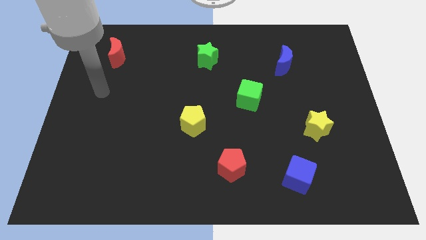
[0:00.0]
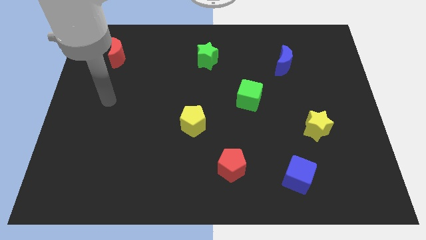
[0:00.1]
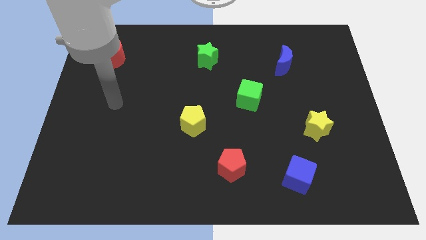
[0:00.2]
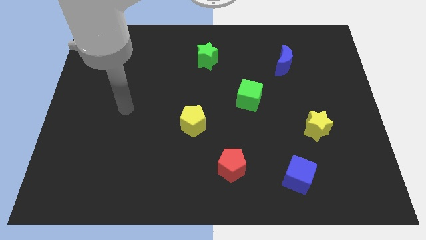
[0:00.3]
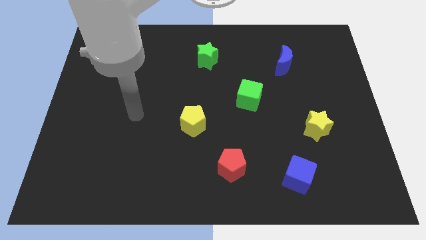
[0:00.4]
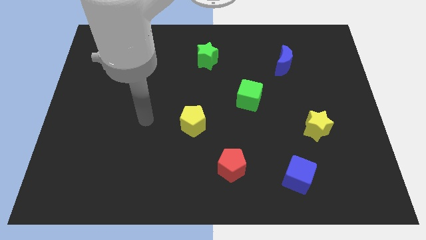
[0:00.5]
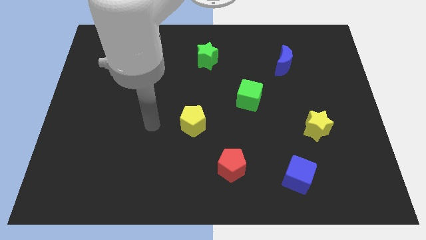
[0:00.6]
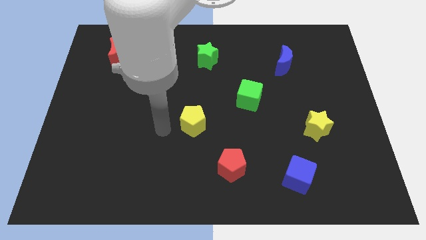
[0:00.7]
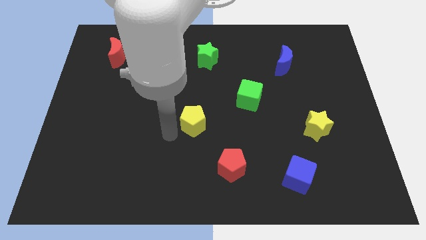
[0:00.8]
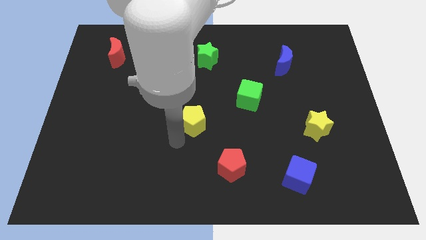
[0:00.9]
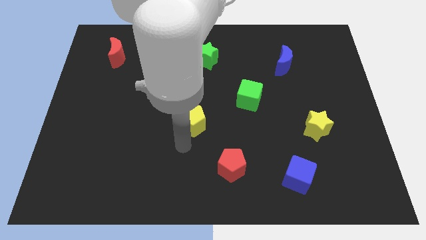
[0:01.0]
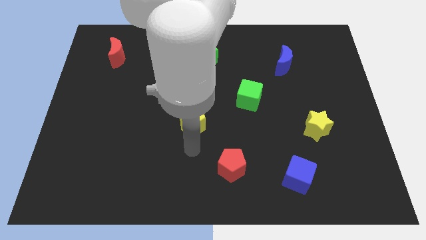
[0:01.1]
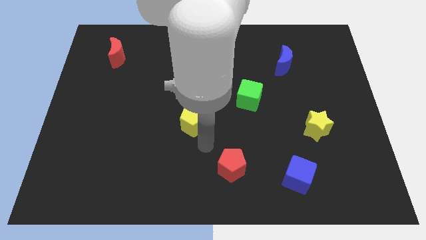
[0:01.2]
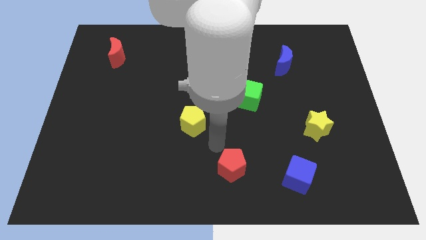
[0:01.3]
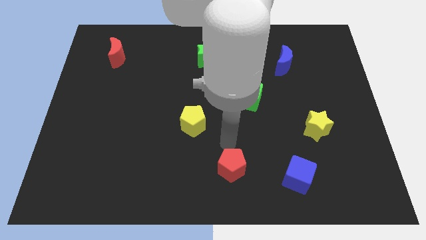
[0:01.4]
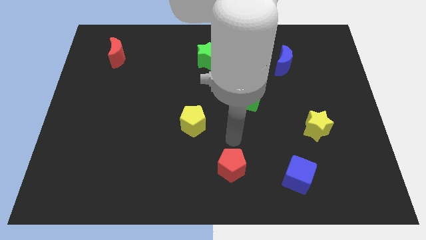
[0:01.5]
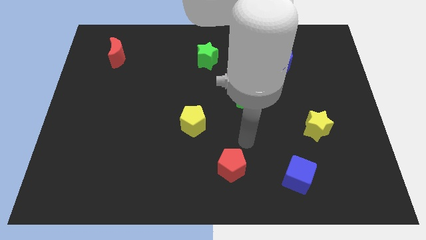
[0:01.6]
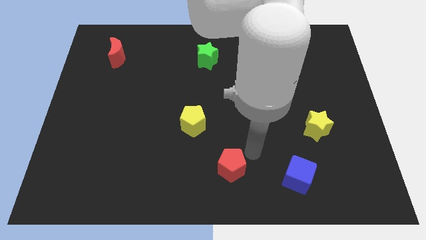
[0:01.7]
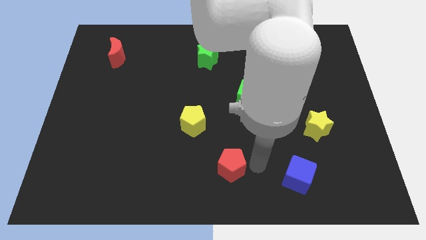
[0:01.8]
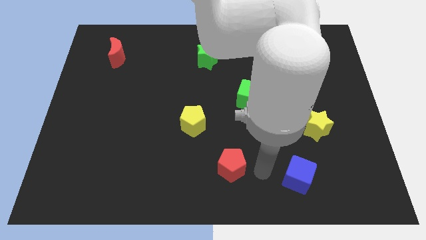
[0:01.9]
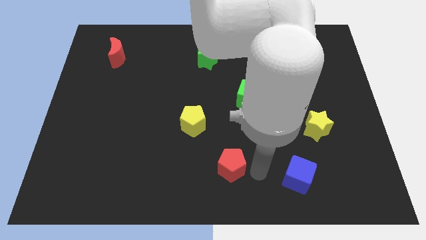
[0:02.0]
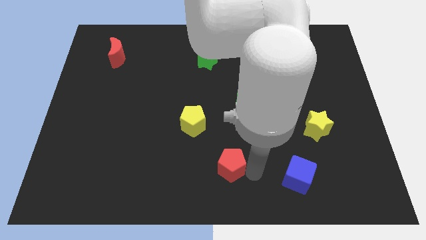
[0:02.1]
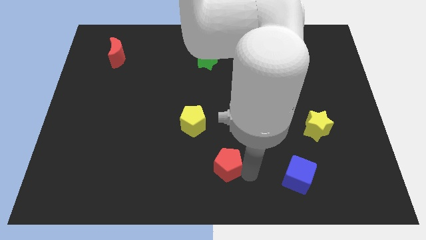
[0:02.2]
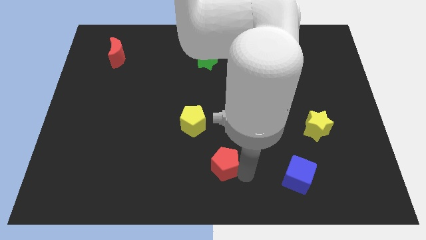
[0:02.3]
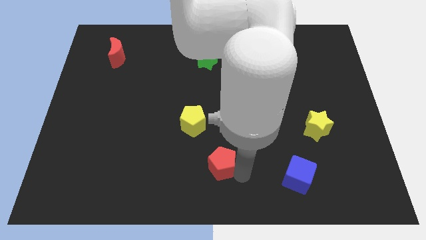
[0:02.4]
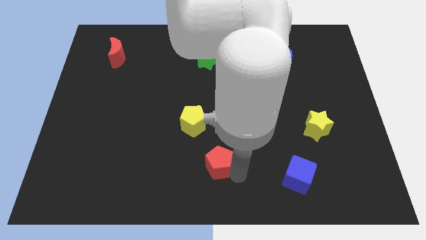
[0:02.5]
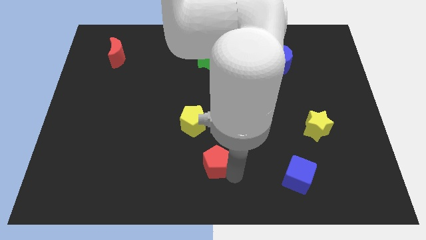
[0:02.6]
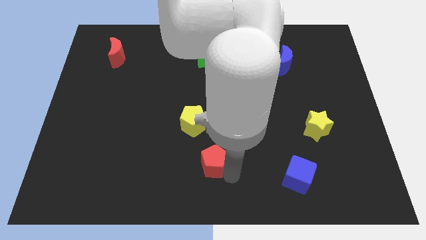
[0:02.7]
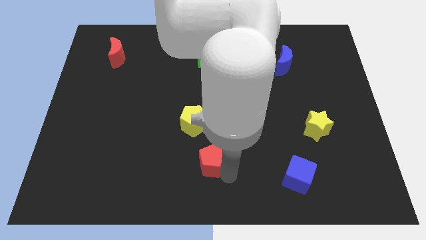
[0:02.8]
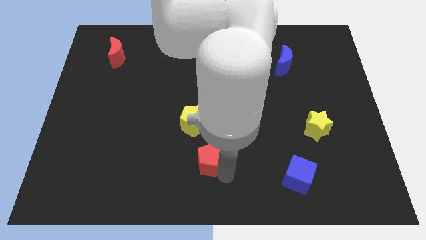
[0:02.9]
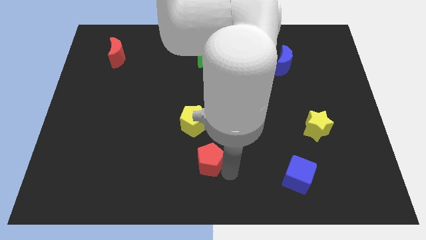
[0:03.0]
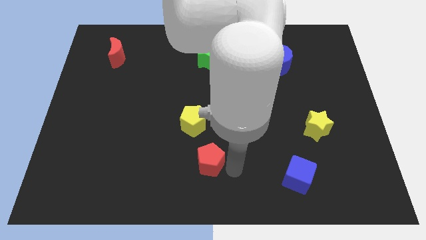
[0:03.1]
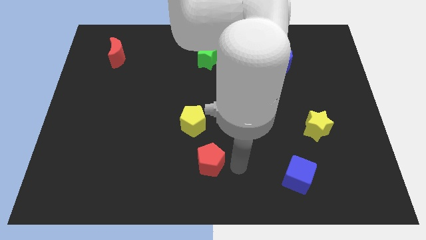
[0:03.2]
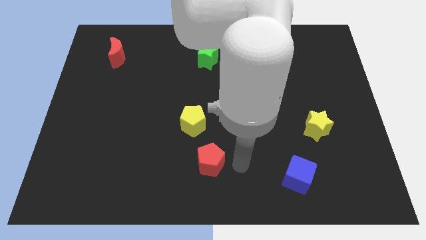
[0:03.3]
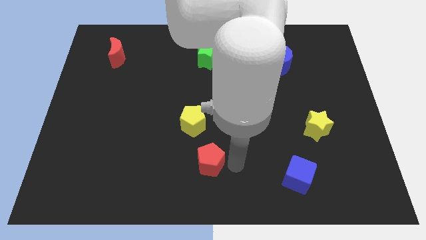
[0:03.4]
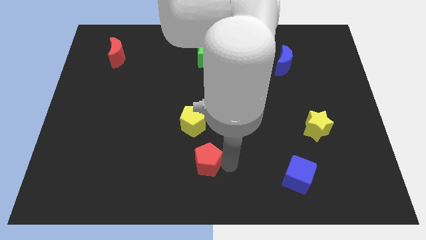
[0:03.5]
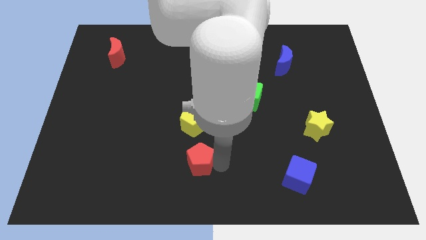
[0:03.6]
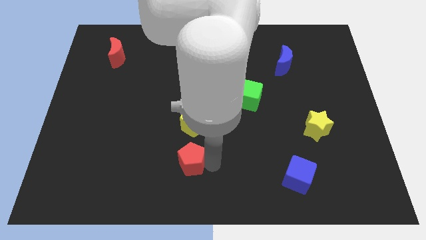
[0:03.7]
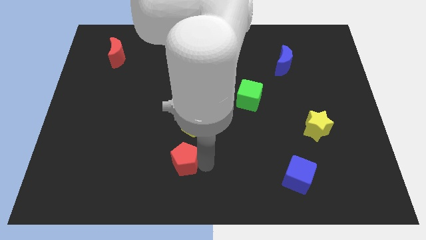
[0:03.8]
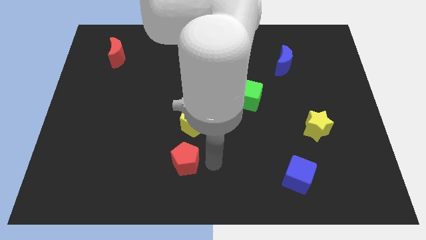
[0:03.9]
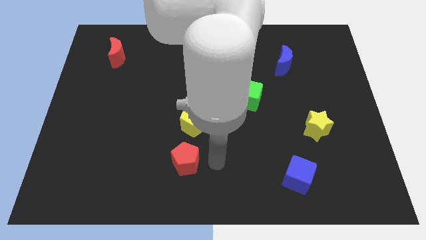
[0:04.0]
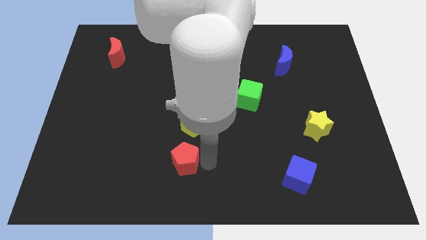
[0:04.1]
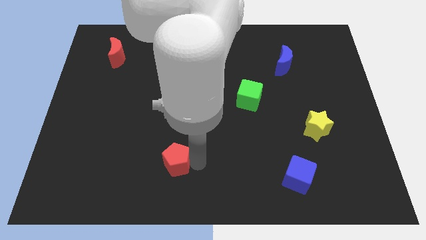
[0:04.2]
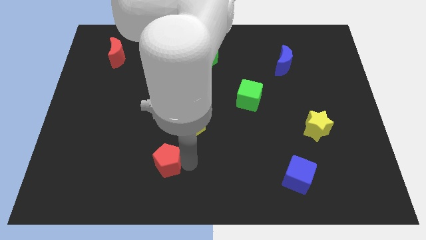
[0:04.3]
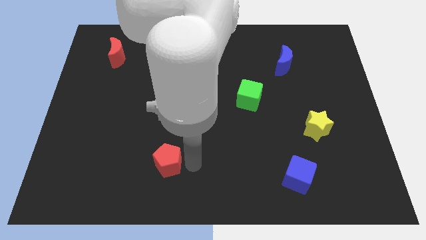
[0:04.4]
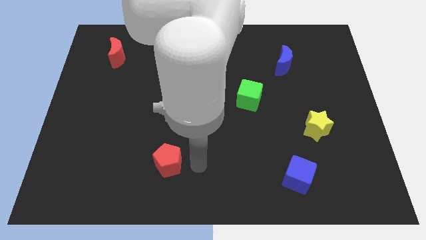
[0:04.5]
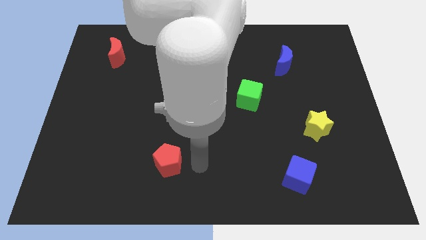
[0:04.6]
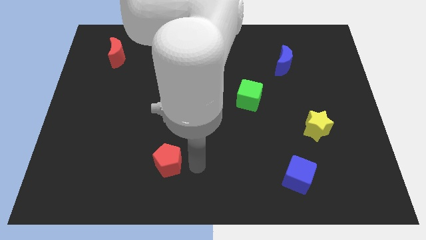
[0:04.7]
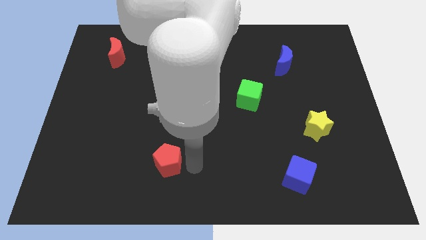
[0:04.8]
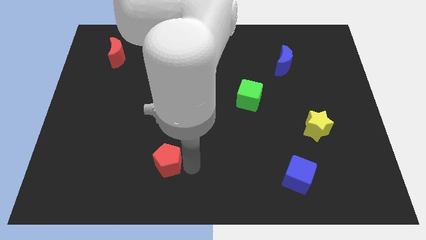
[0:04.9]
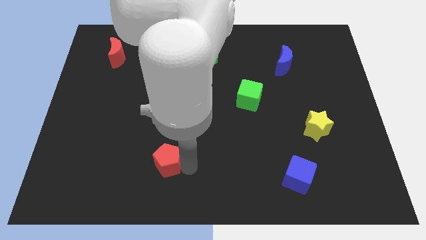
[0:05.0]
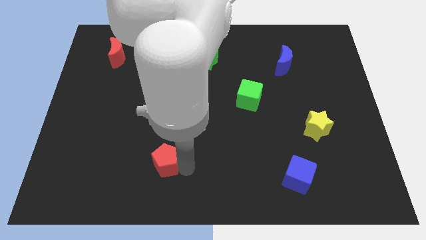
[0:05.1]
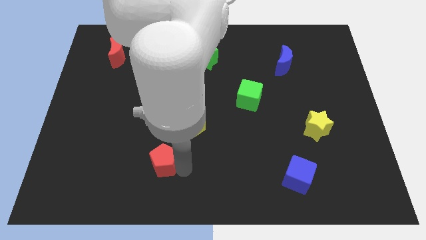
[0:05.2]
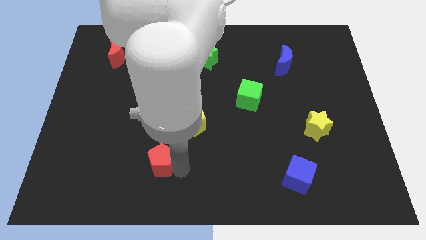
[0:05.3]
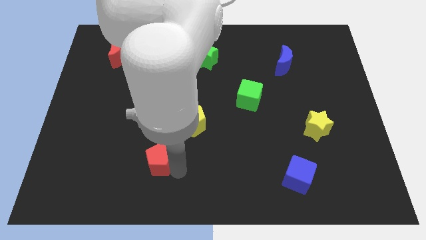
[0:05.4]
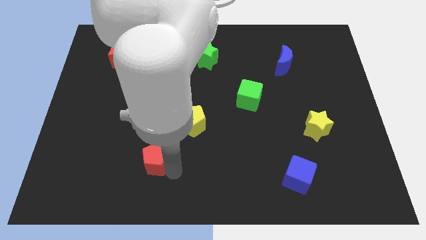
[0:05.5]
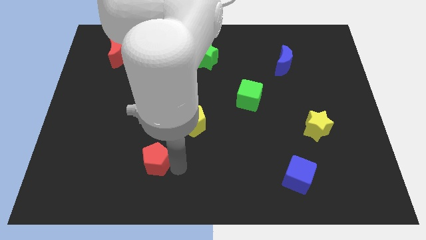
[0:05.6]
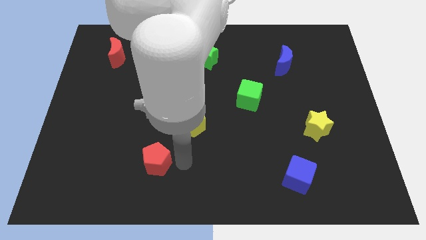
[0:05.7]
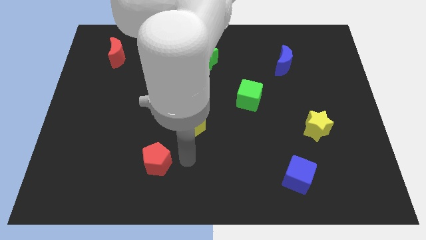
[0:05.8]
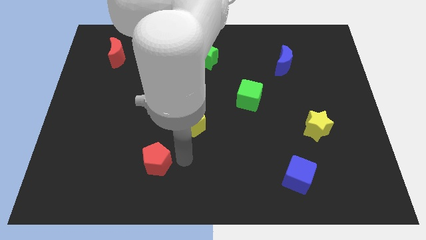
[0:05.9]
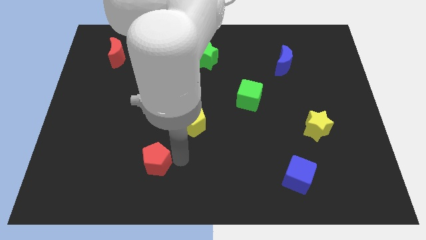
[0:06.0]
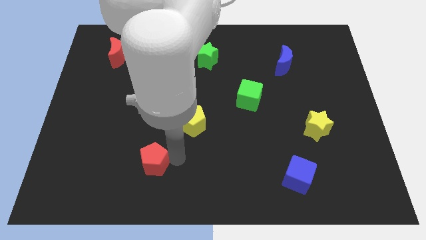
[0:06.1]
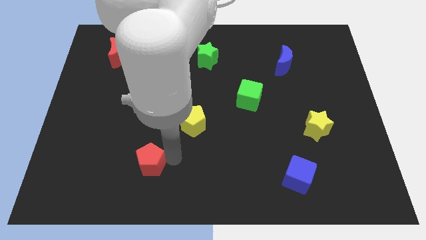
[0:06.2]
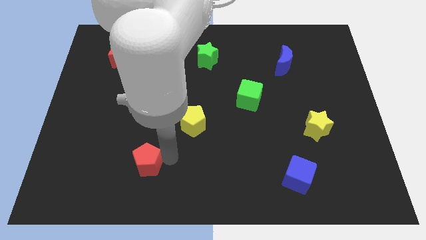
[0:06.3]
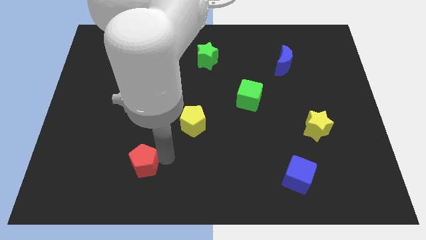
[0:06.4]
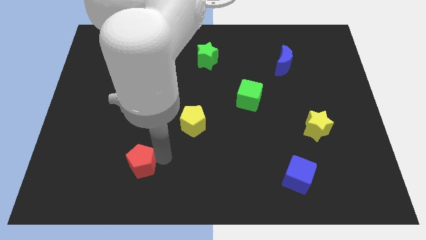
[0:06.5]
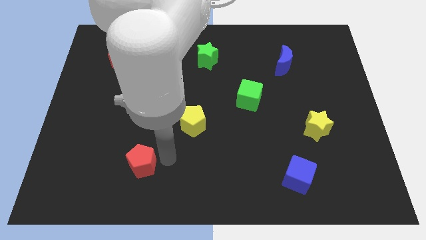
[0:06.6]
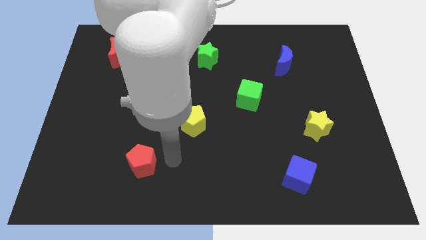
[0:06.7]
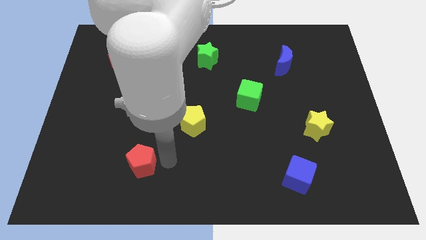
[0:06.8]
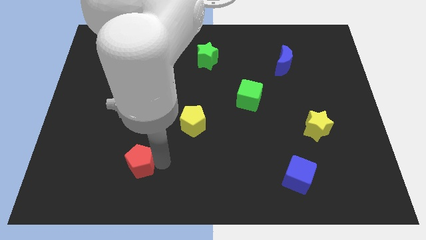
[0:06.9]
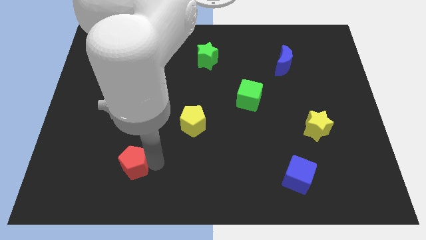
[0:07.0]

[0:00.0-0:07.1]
slide the red pentagon to the left

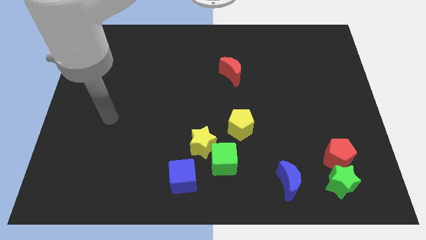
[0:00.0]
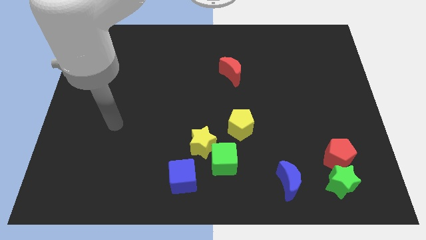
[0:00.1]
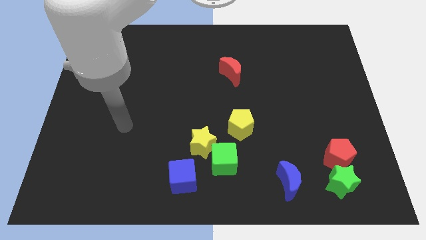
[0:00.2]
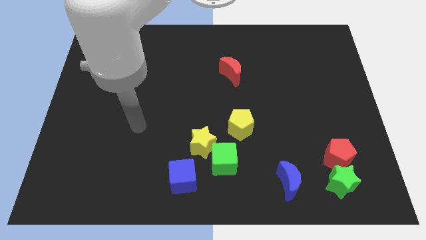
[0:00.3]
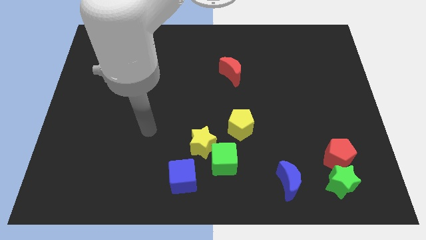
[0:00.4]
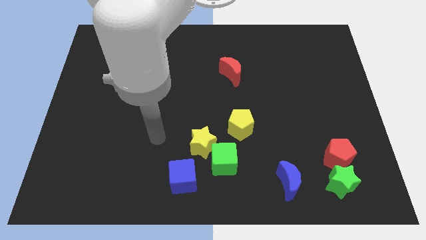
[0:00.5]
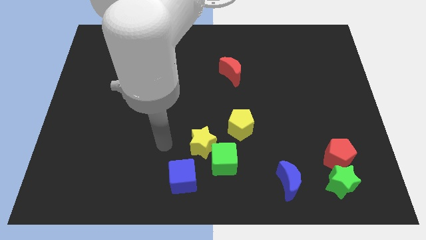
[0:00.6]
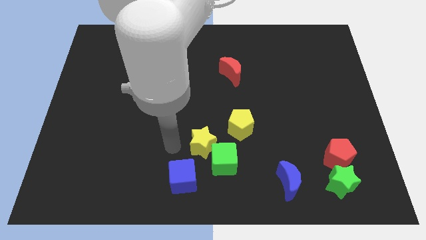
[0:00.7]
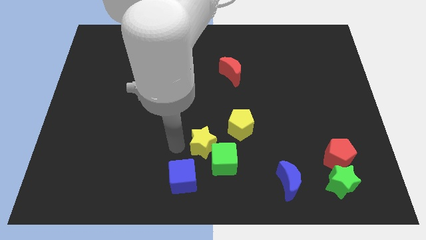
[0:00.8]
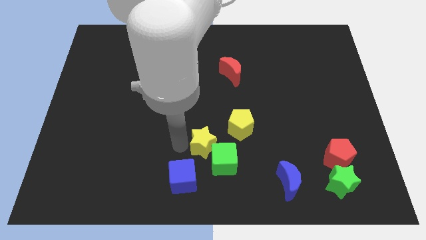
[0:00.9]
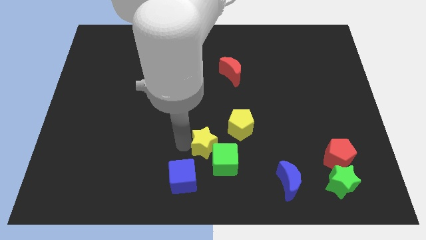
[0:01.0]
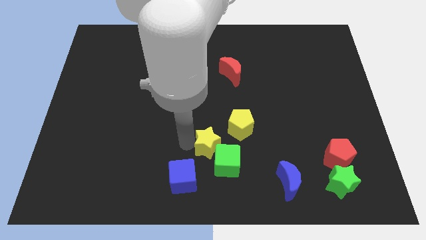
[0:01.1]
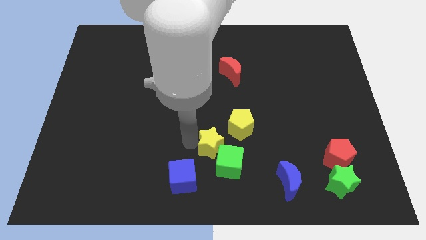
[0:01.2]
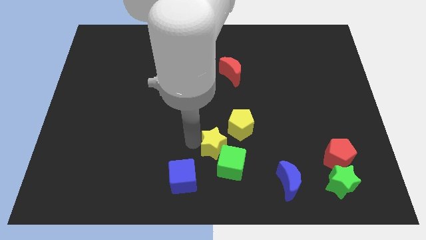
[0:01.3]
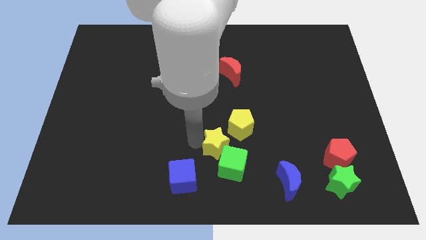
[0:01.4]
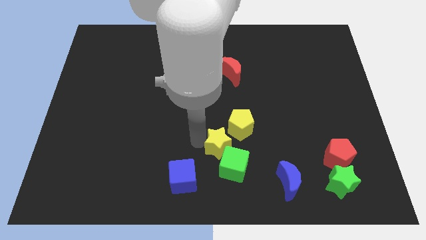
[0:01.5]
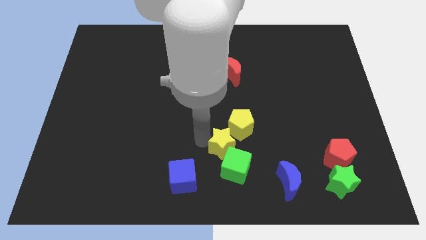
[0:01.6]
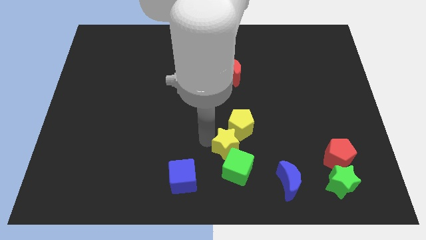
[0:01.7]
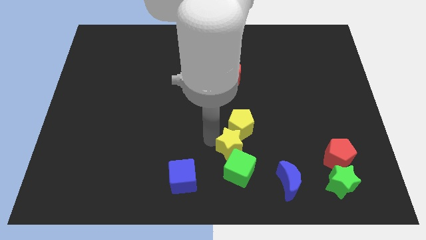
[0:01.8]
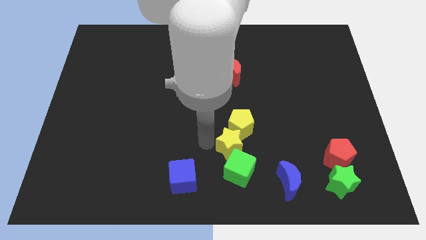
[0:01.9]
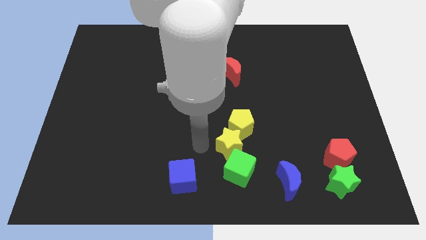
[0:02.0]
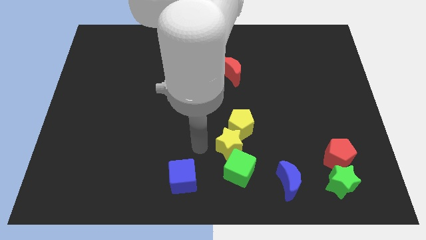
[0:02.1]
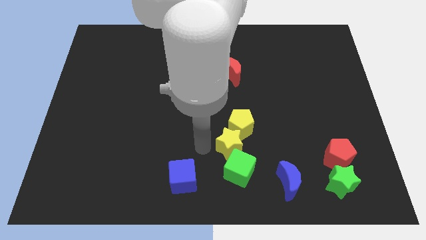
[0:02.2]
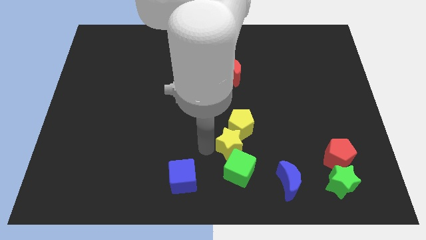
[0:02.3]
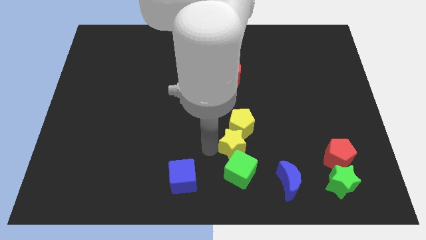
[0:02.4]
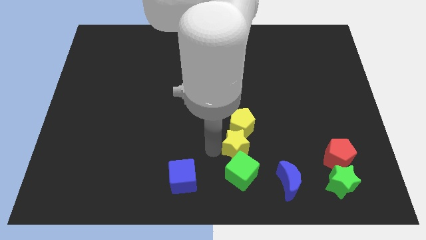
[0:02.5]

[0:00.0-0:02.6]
slide the yellow star slightly right
